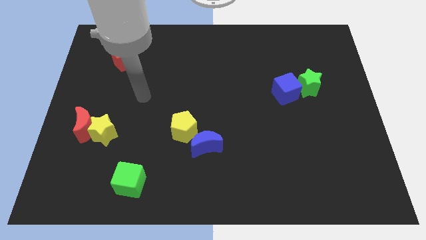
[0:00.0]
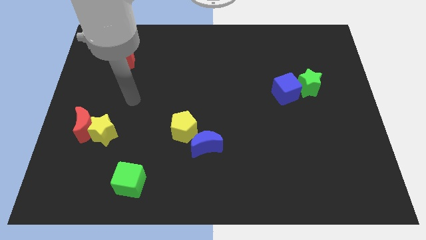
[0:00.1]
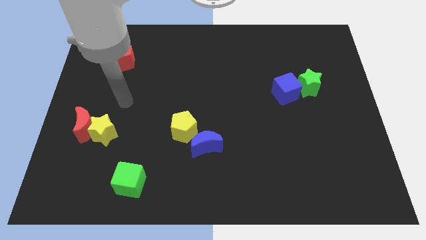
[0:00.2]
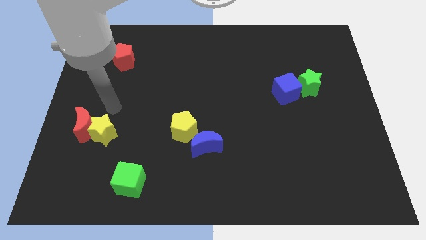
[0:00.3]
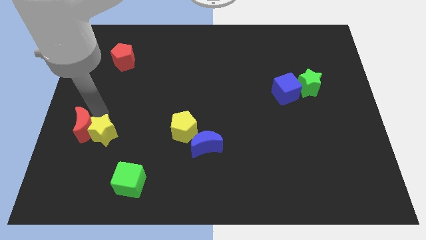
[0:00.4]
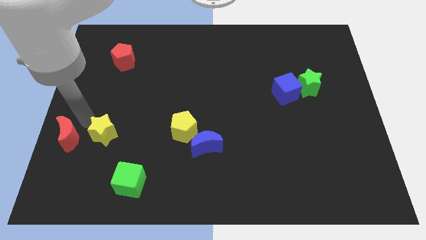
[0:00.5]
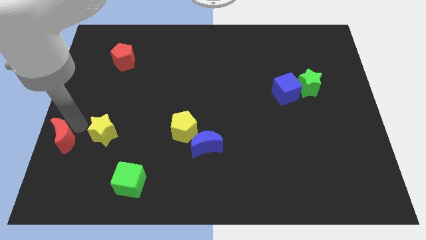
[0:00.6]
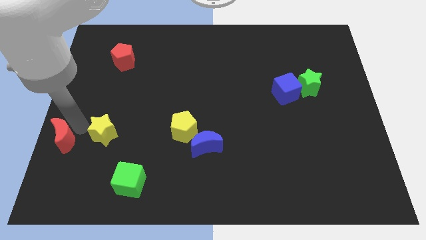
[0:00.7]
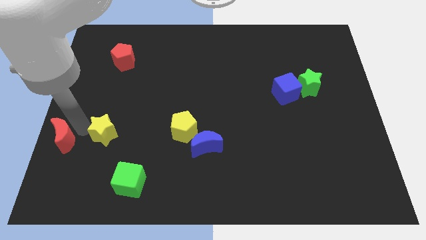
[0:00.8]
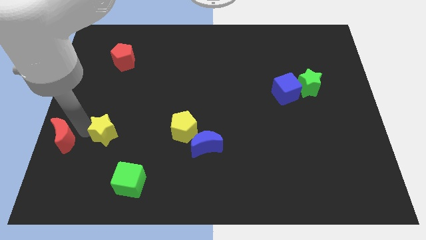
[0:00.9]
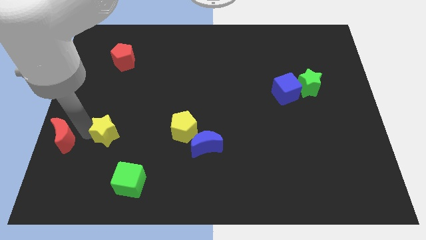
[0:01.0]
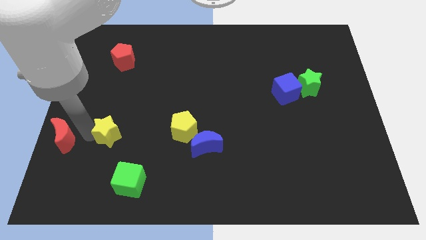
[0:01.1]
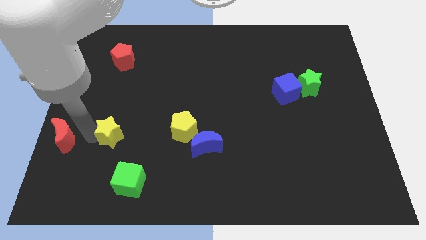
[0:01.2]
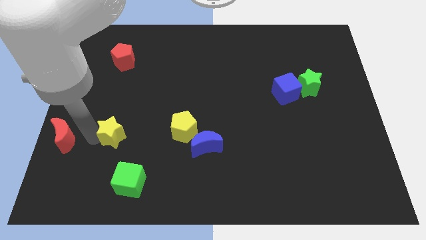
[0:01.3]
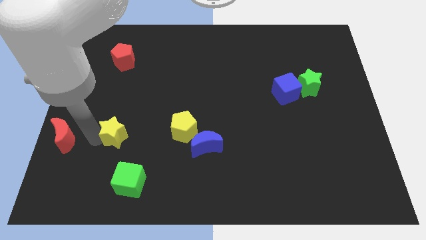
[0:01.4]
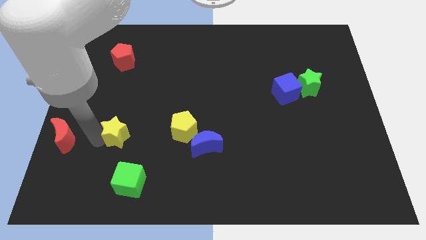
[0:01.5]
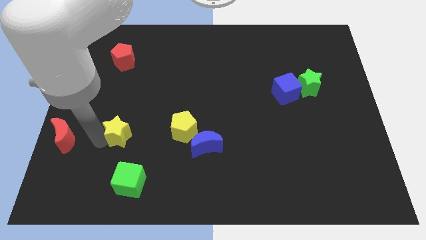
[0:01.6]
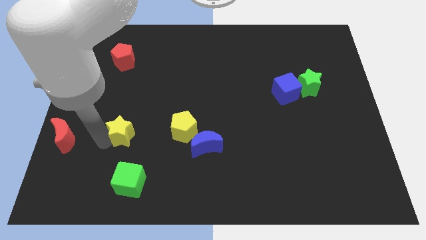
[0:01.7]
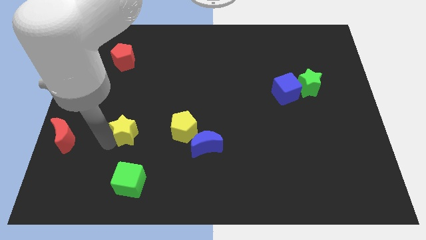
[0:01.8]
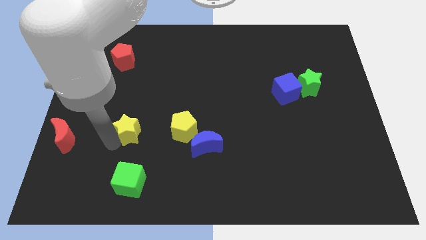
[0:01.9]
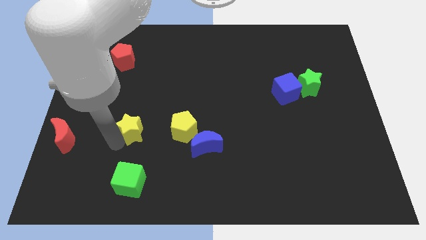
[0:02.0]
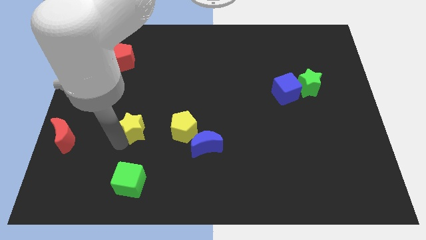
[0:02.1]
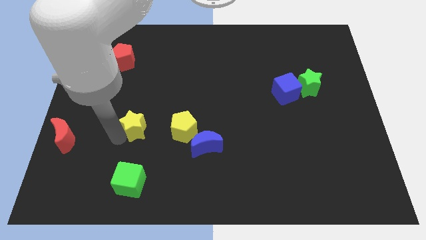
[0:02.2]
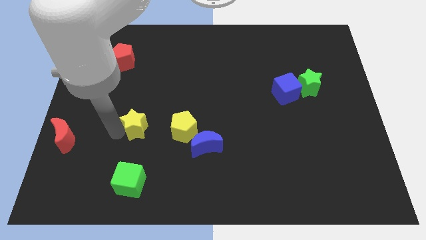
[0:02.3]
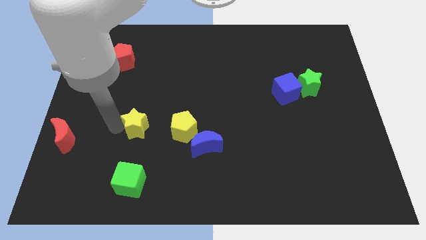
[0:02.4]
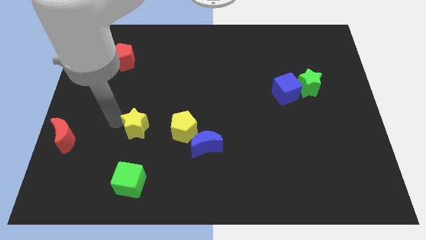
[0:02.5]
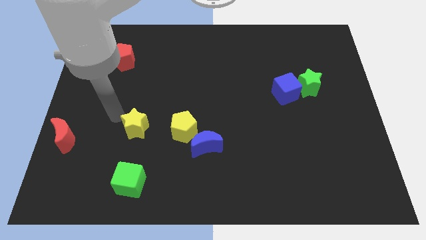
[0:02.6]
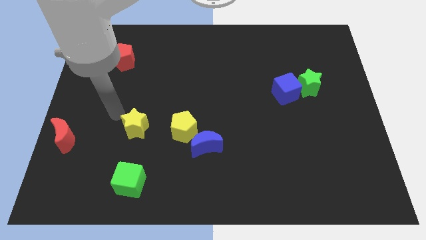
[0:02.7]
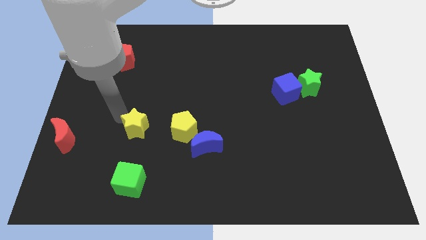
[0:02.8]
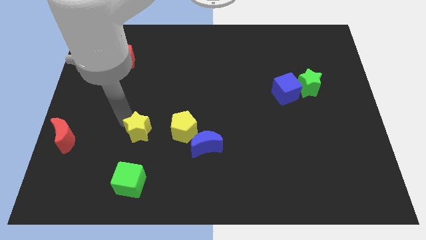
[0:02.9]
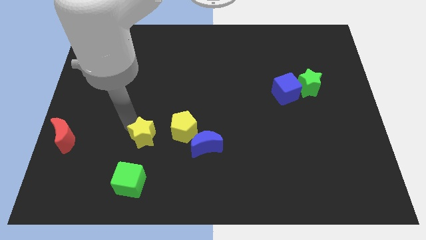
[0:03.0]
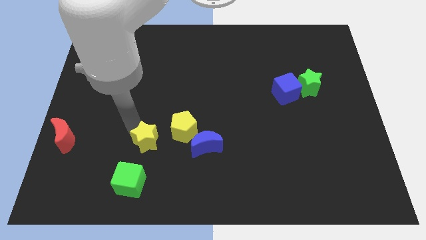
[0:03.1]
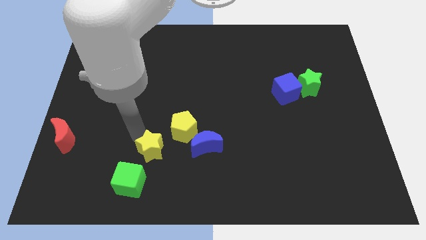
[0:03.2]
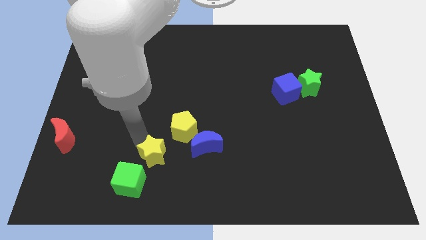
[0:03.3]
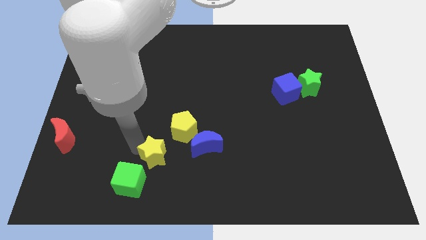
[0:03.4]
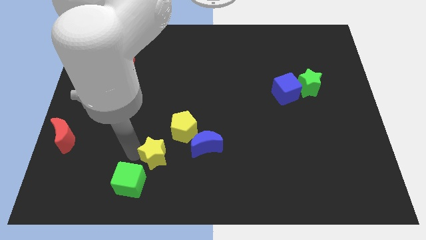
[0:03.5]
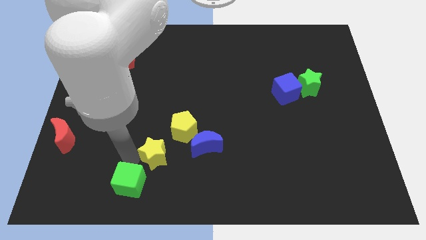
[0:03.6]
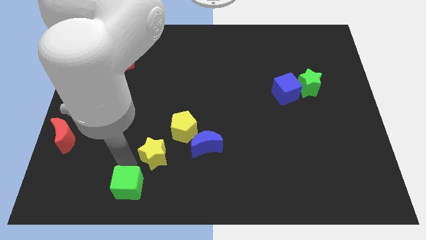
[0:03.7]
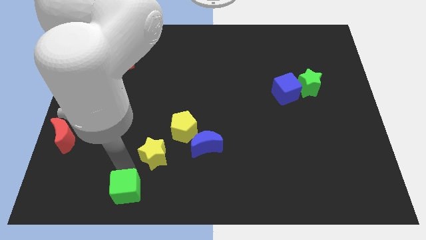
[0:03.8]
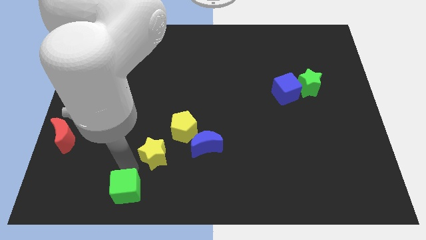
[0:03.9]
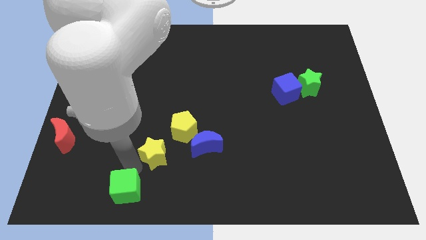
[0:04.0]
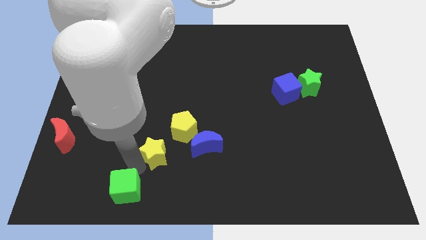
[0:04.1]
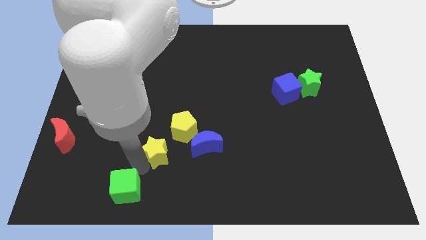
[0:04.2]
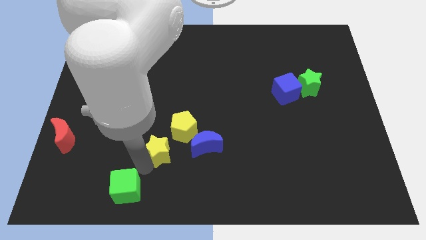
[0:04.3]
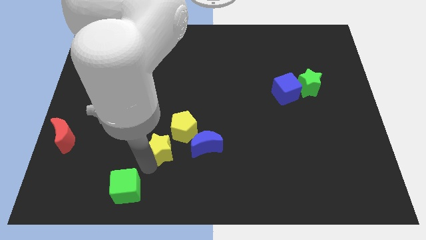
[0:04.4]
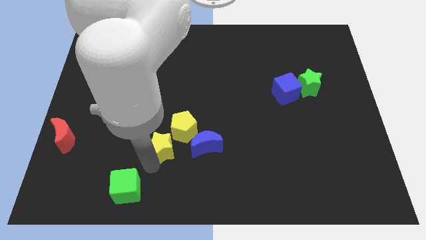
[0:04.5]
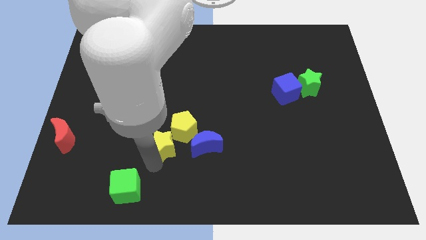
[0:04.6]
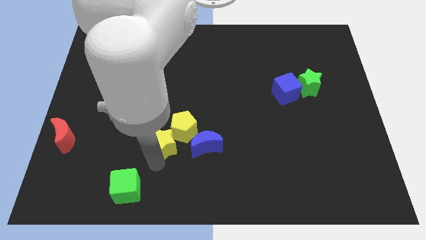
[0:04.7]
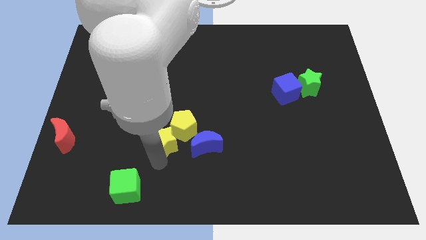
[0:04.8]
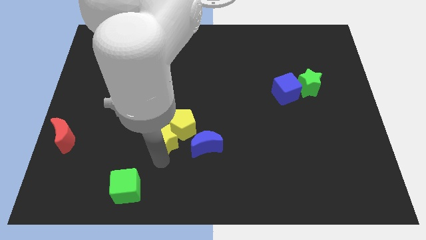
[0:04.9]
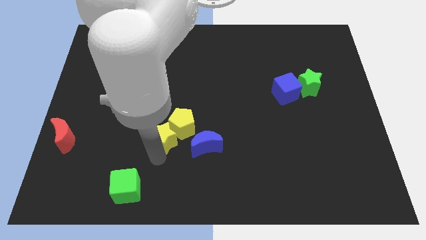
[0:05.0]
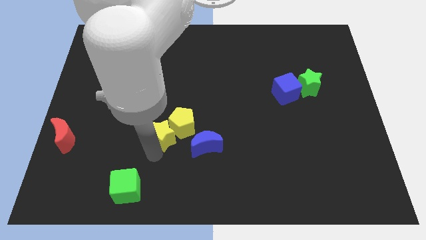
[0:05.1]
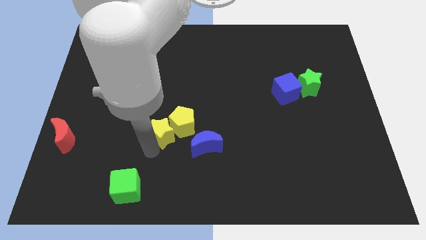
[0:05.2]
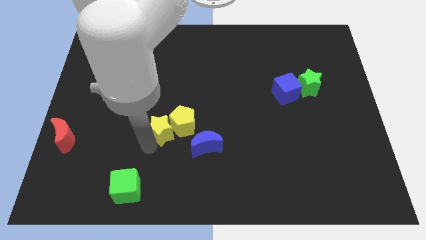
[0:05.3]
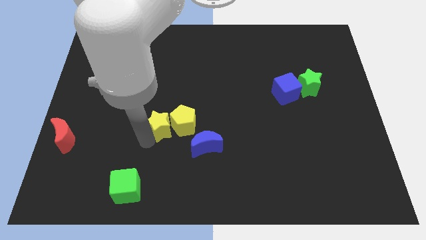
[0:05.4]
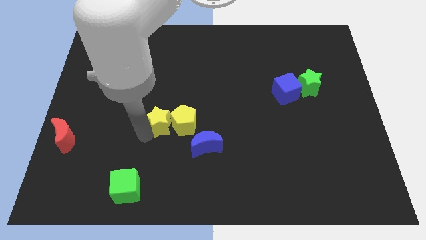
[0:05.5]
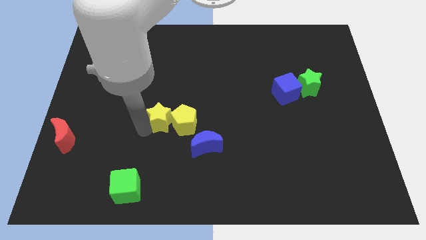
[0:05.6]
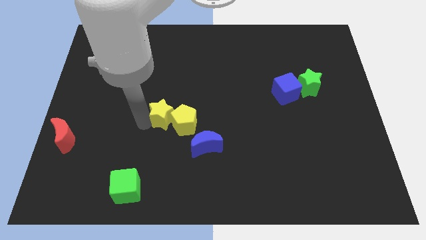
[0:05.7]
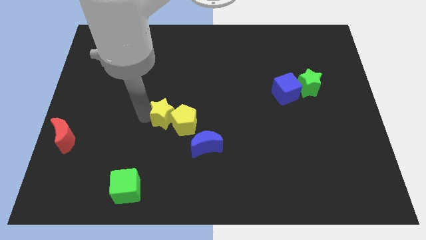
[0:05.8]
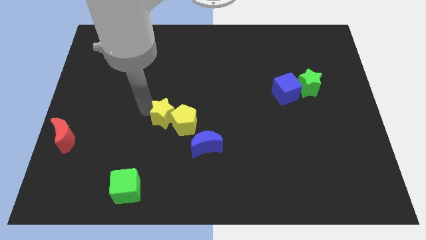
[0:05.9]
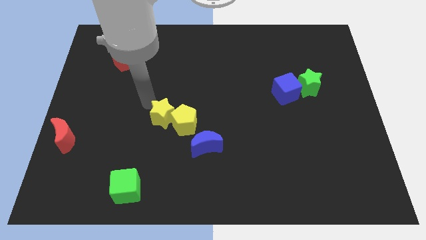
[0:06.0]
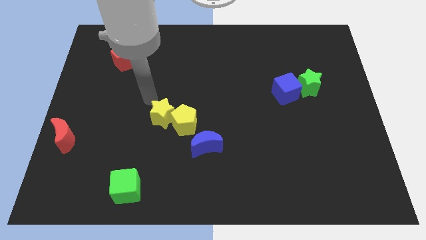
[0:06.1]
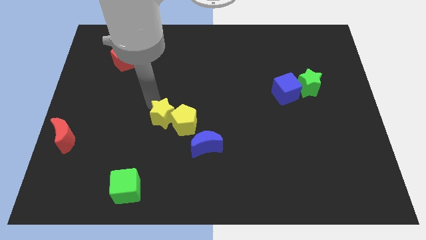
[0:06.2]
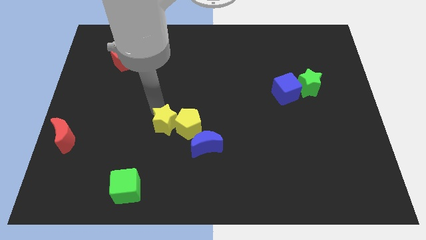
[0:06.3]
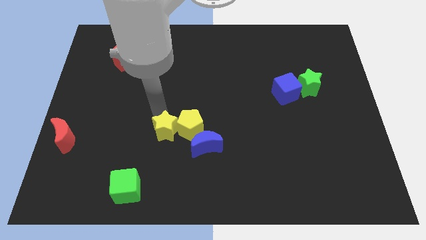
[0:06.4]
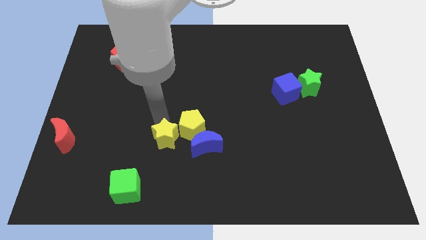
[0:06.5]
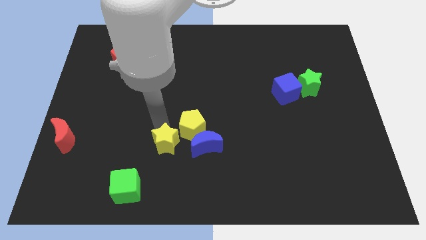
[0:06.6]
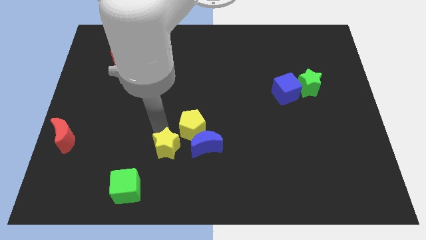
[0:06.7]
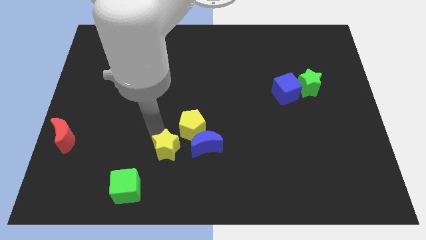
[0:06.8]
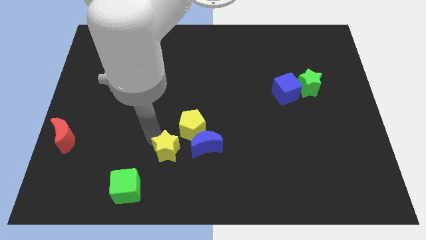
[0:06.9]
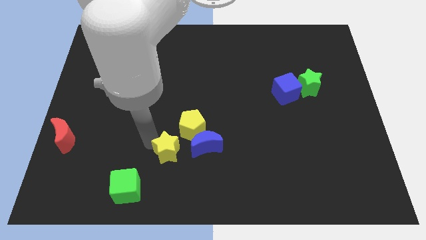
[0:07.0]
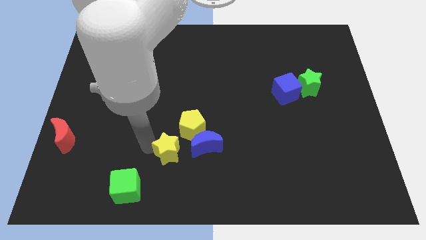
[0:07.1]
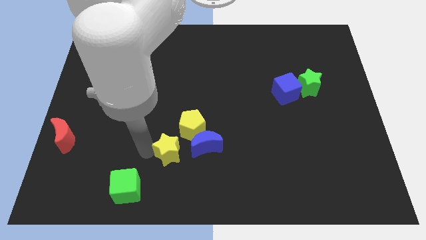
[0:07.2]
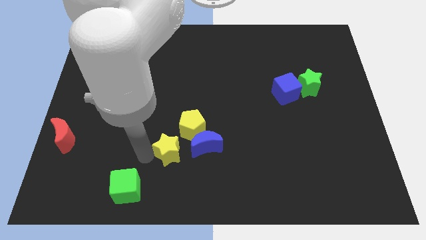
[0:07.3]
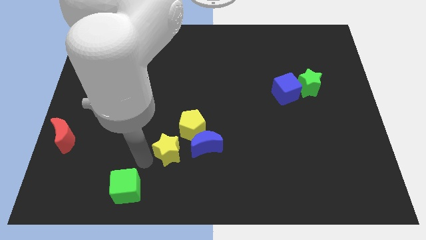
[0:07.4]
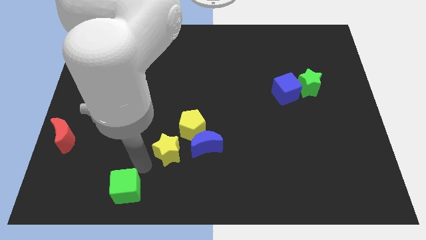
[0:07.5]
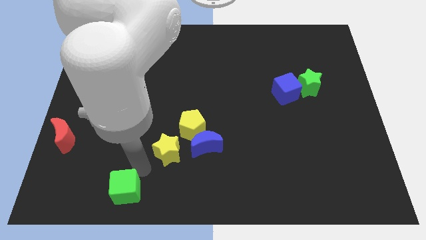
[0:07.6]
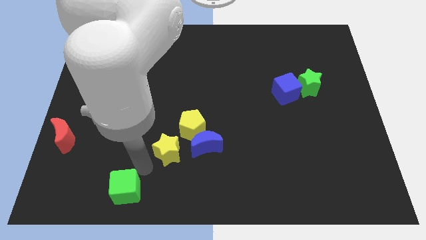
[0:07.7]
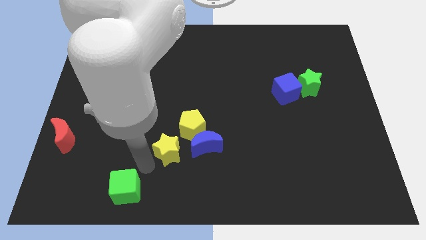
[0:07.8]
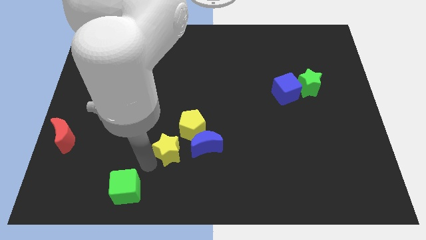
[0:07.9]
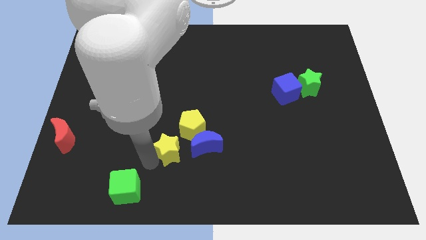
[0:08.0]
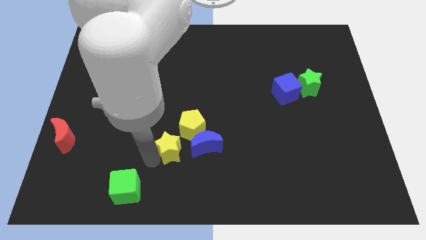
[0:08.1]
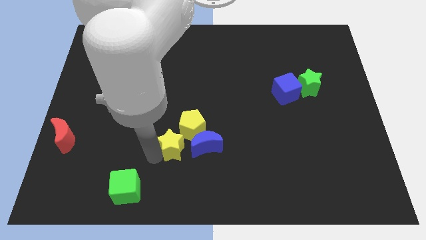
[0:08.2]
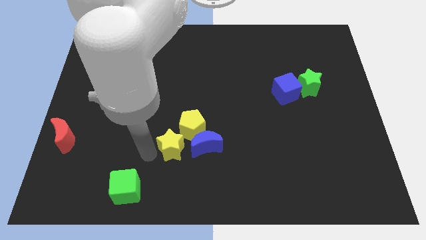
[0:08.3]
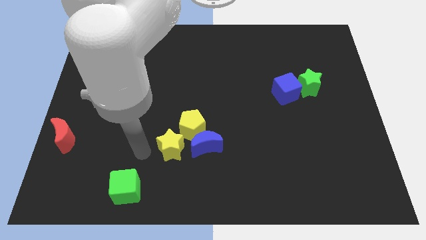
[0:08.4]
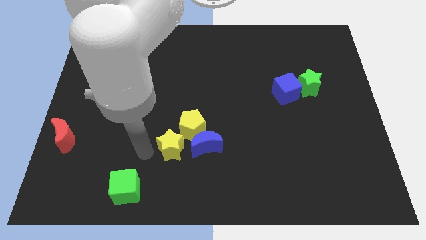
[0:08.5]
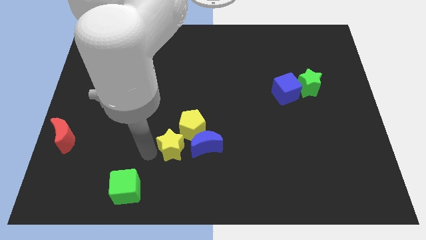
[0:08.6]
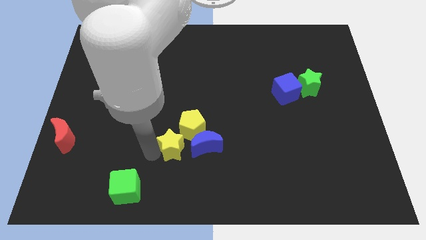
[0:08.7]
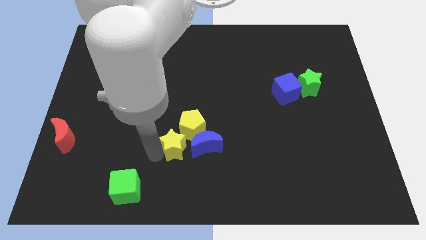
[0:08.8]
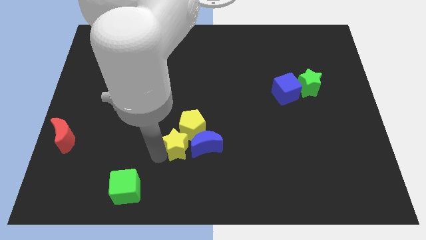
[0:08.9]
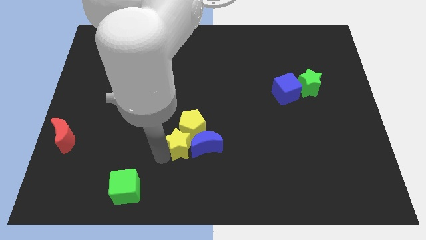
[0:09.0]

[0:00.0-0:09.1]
push the yellow star next to the blue moon
